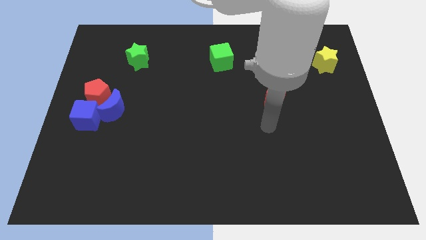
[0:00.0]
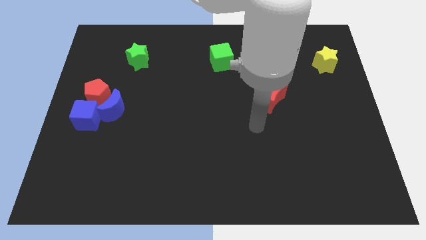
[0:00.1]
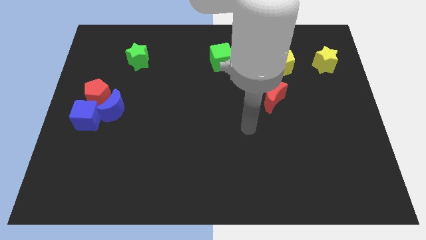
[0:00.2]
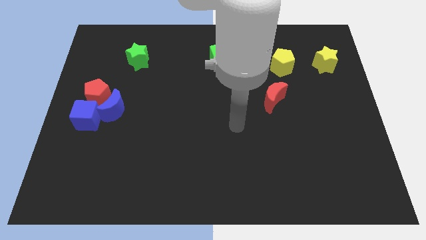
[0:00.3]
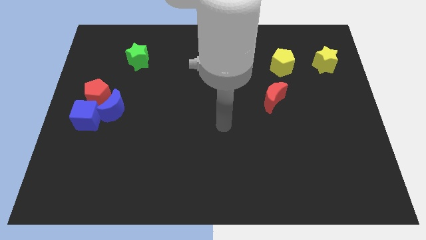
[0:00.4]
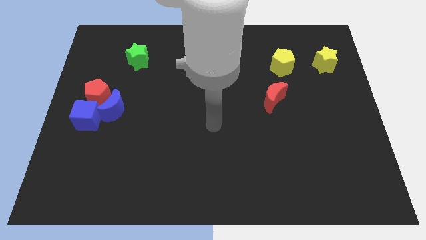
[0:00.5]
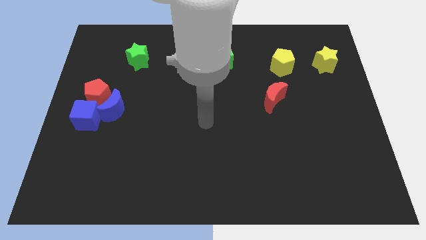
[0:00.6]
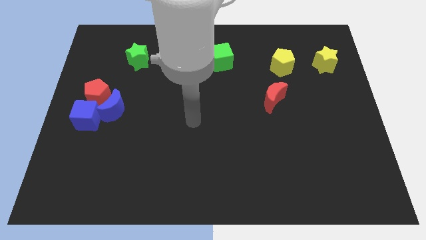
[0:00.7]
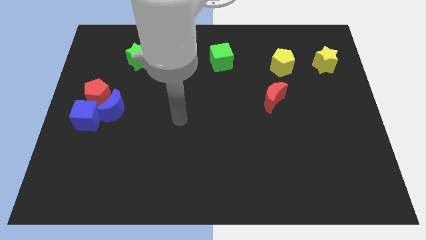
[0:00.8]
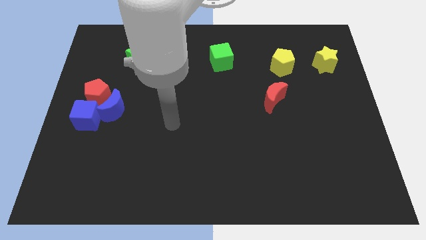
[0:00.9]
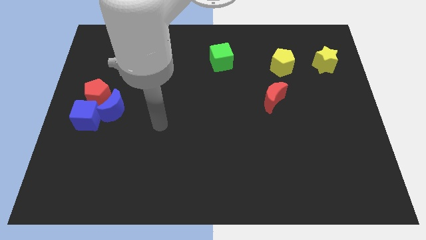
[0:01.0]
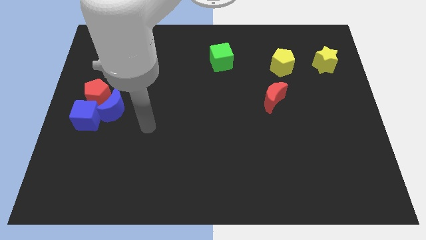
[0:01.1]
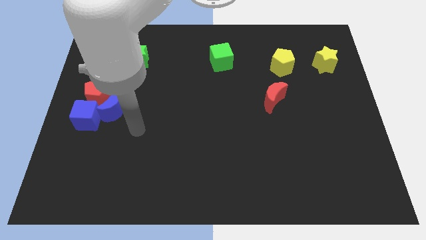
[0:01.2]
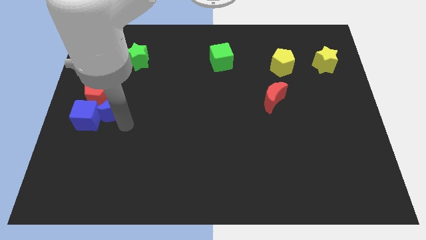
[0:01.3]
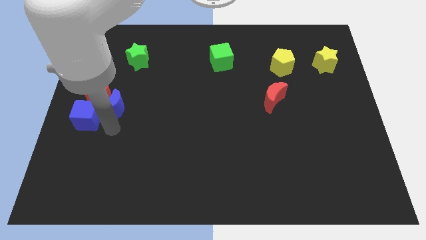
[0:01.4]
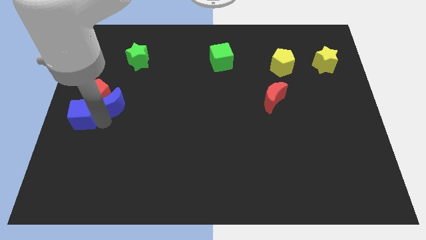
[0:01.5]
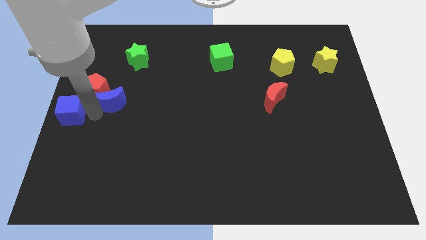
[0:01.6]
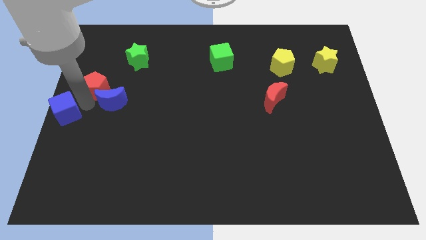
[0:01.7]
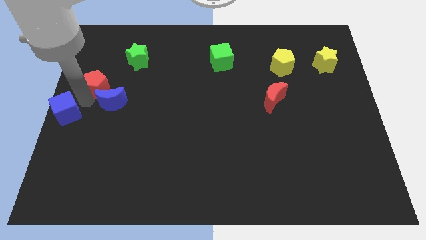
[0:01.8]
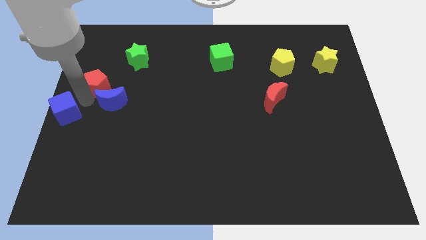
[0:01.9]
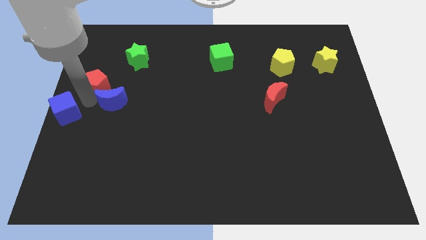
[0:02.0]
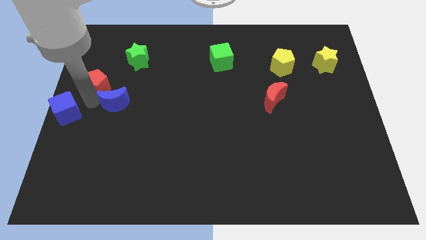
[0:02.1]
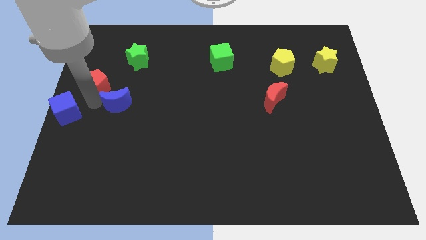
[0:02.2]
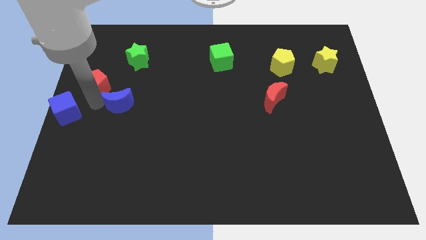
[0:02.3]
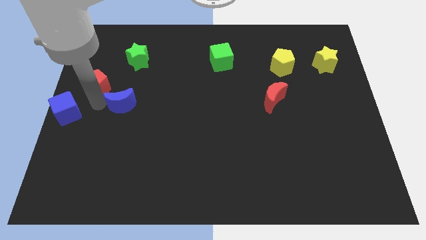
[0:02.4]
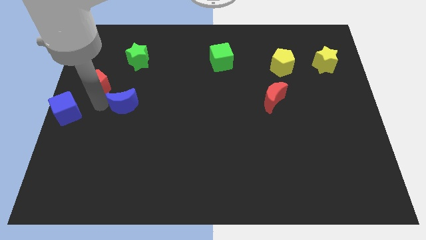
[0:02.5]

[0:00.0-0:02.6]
separate the blue moon from the red pentagon and blue cube

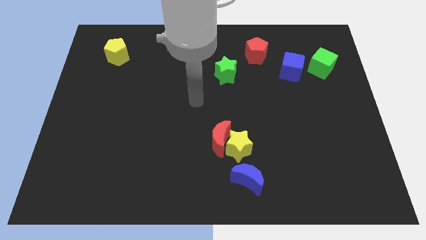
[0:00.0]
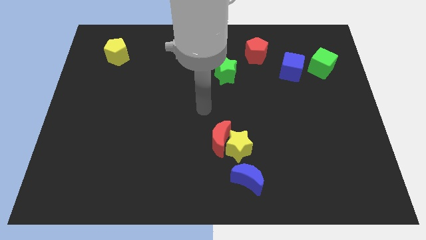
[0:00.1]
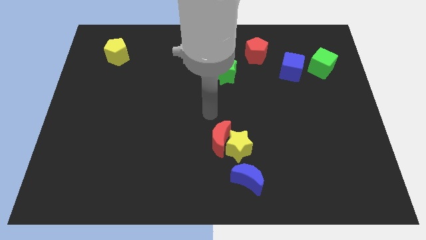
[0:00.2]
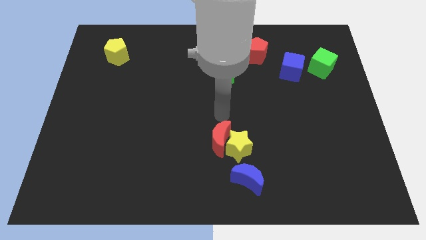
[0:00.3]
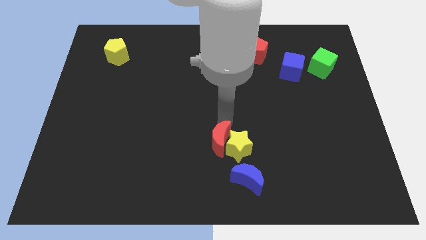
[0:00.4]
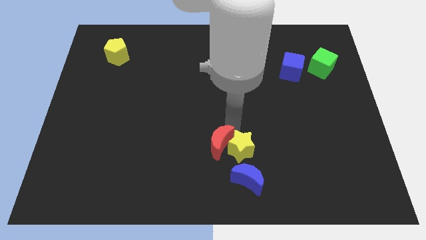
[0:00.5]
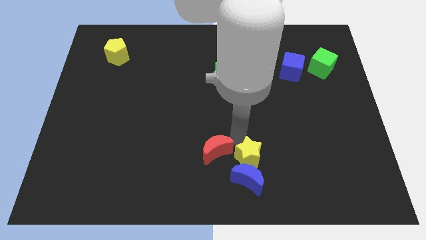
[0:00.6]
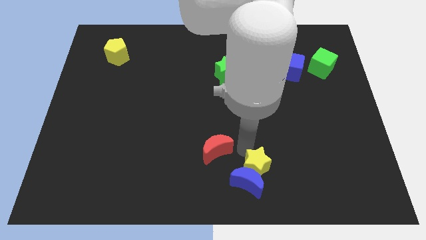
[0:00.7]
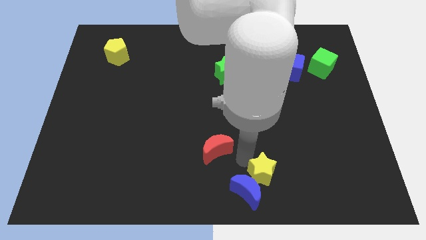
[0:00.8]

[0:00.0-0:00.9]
move the red moon away from the yellow star

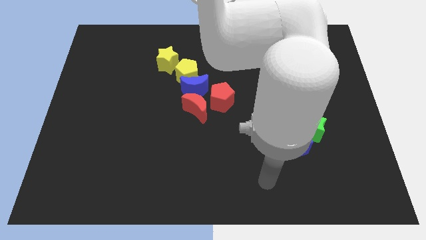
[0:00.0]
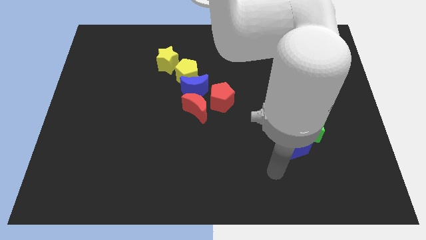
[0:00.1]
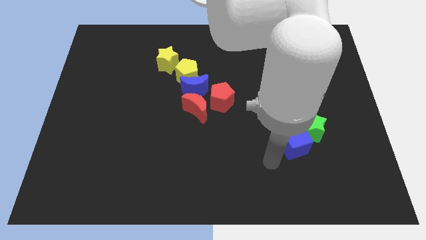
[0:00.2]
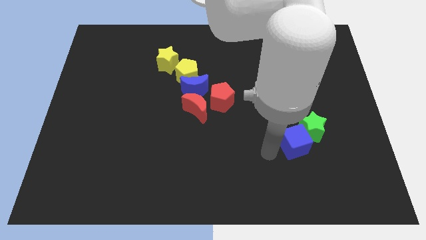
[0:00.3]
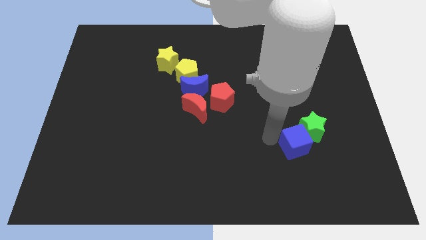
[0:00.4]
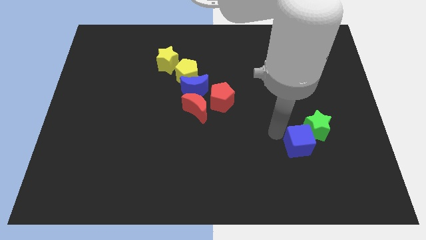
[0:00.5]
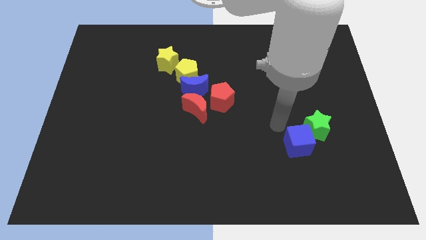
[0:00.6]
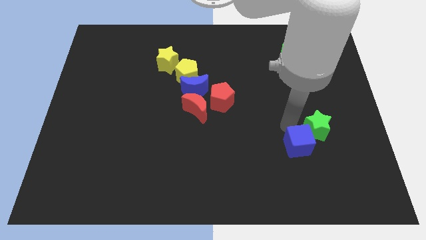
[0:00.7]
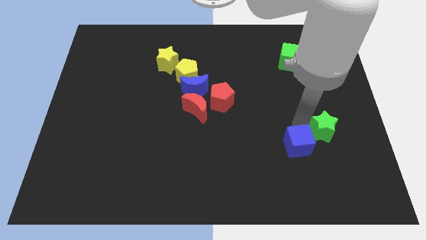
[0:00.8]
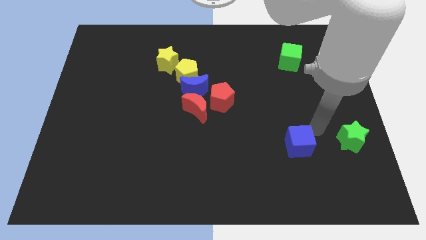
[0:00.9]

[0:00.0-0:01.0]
separate the blue cube from the green star

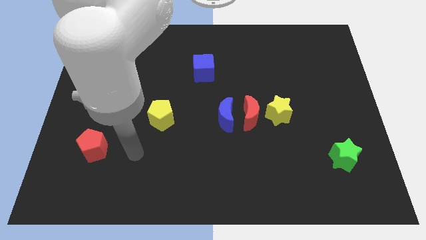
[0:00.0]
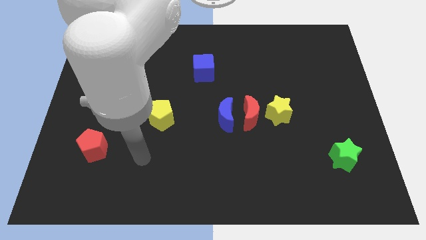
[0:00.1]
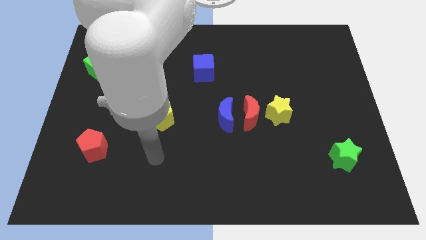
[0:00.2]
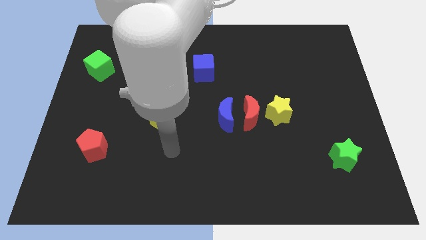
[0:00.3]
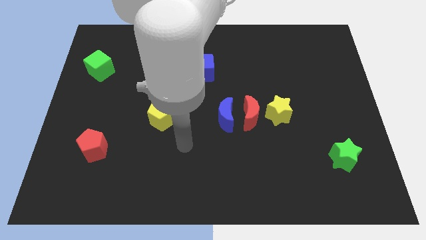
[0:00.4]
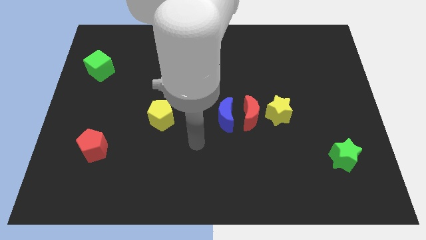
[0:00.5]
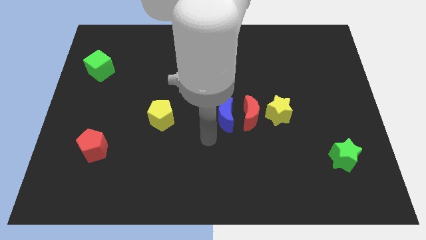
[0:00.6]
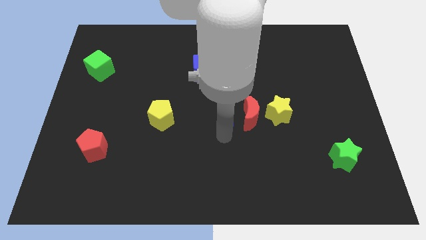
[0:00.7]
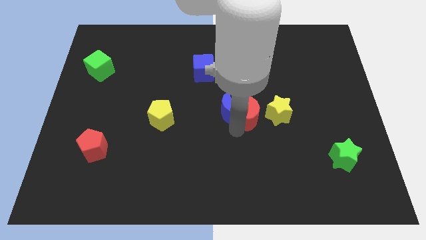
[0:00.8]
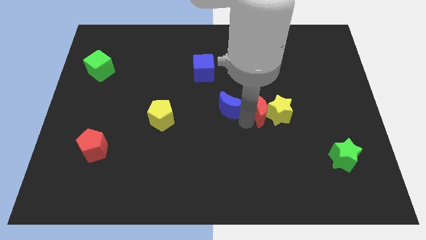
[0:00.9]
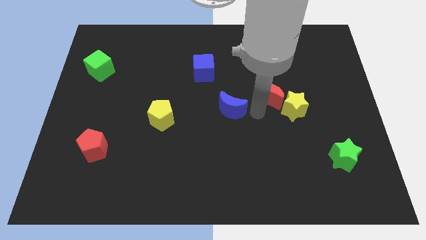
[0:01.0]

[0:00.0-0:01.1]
move the blue moon away from the red moon

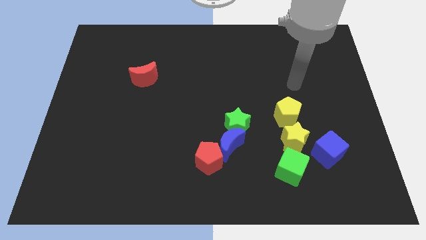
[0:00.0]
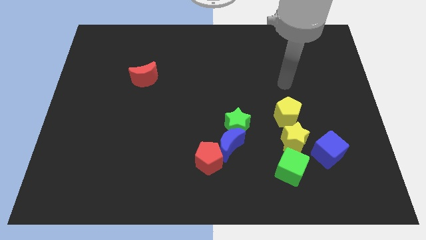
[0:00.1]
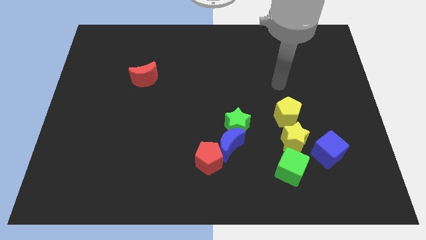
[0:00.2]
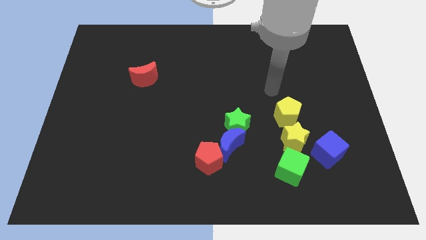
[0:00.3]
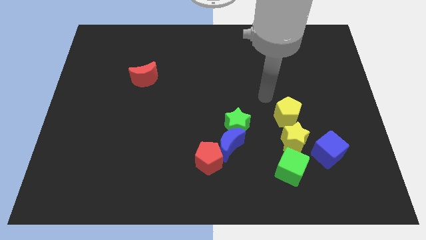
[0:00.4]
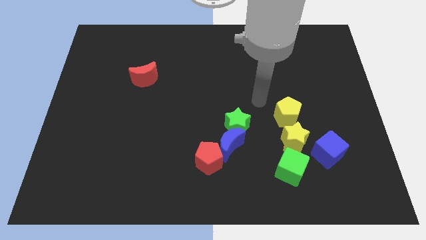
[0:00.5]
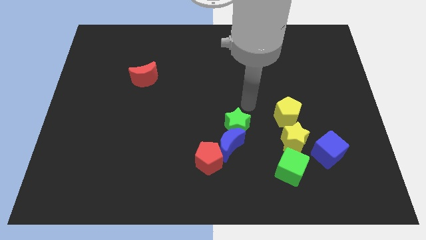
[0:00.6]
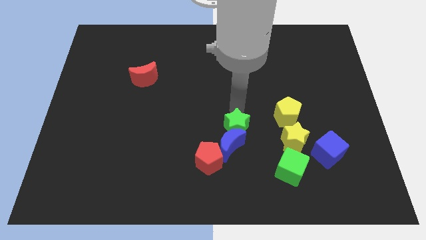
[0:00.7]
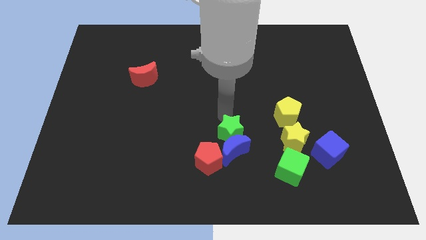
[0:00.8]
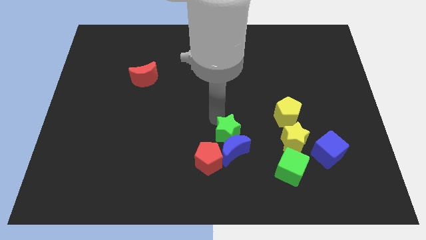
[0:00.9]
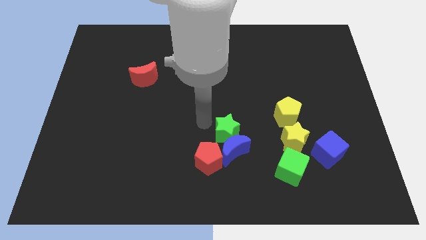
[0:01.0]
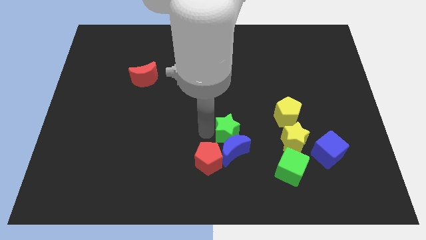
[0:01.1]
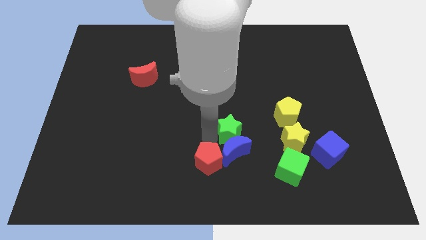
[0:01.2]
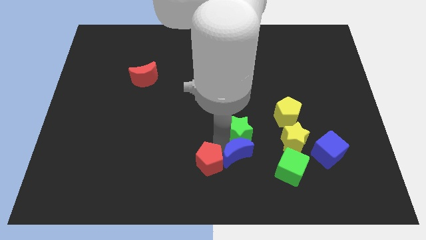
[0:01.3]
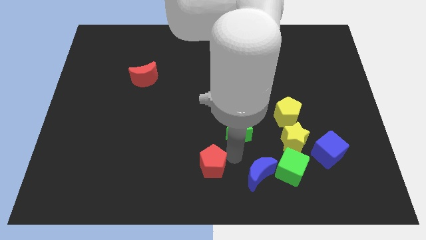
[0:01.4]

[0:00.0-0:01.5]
pull the green star apart from the blue moon

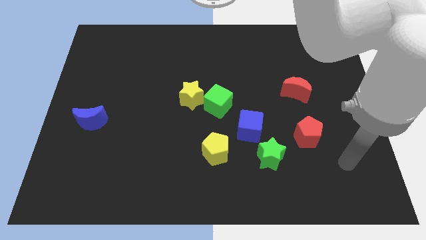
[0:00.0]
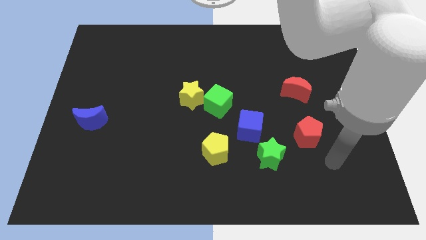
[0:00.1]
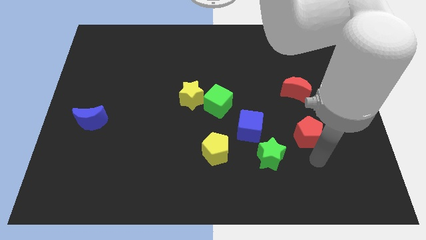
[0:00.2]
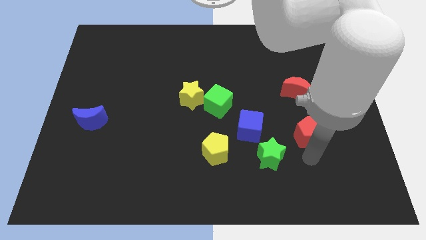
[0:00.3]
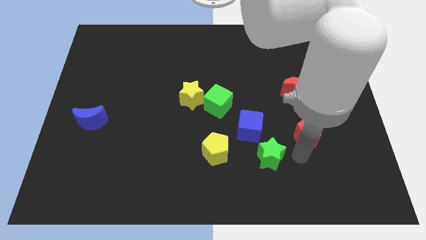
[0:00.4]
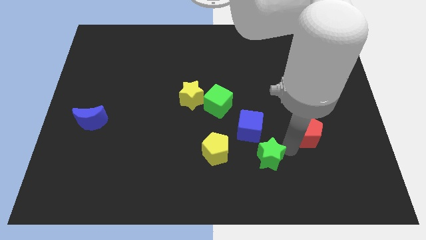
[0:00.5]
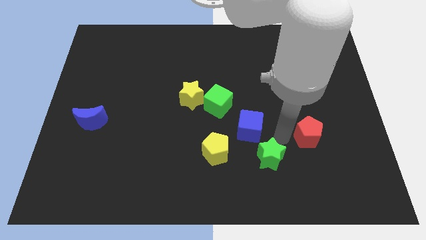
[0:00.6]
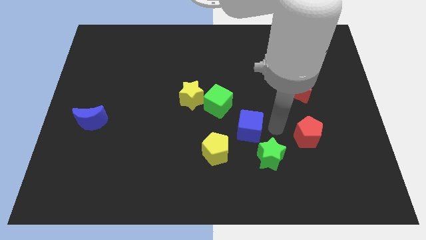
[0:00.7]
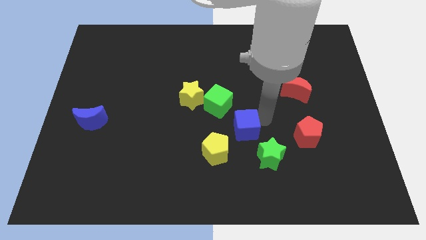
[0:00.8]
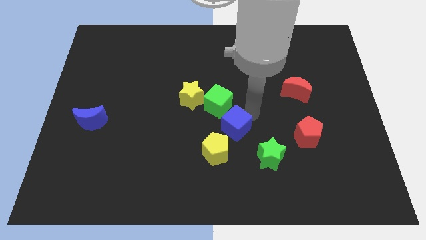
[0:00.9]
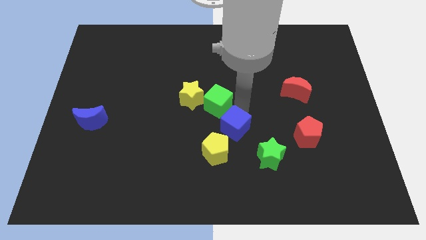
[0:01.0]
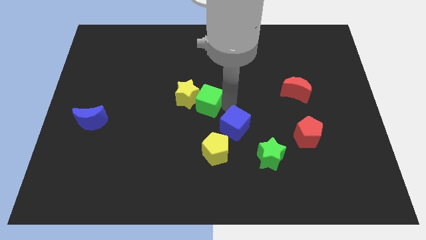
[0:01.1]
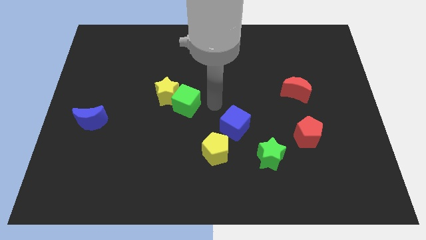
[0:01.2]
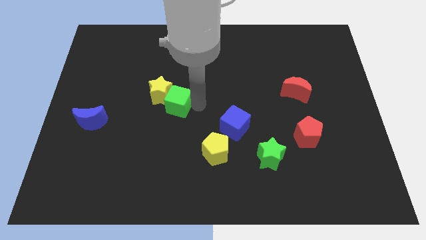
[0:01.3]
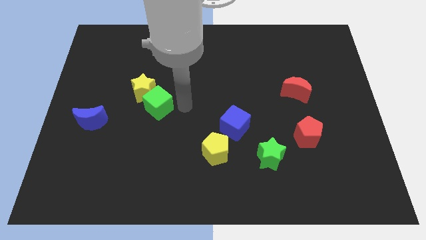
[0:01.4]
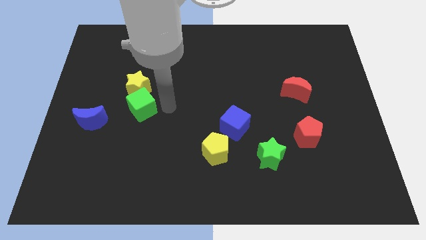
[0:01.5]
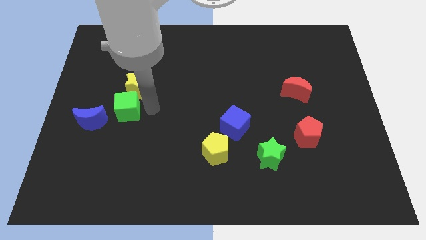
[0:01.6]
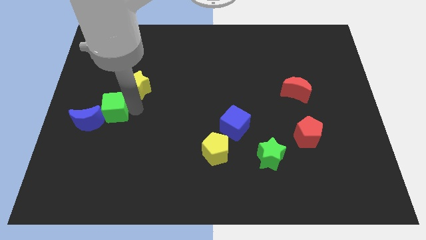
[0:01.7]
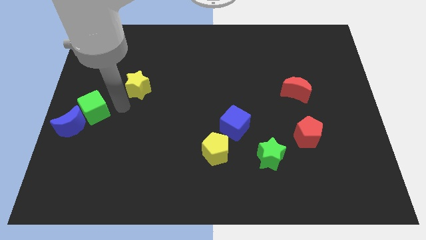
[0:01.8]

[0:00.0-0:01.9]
pull the yellow star apart from the green cube

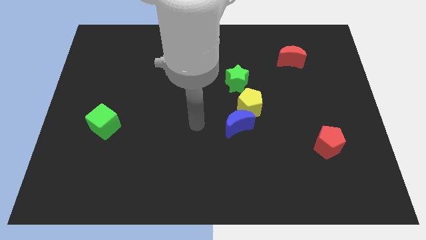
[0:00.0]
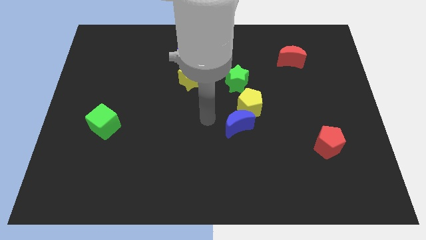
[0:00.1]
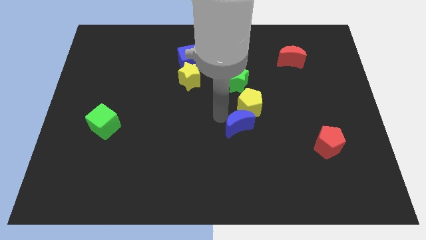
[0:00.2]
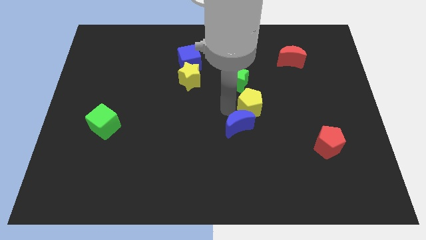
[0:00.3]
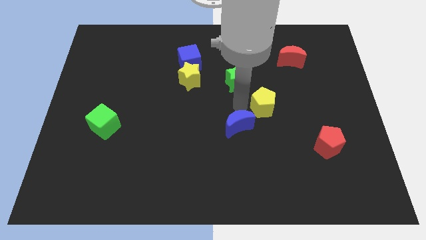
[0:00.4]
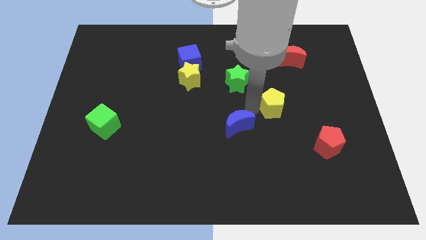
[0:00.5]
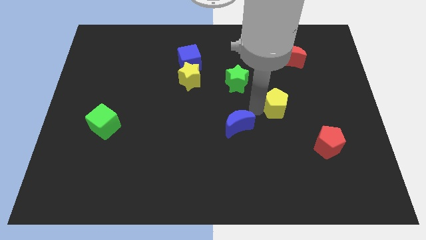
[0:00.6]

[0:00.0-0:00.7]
separate the blue moon from the yellow pentagon
